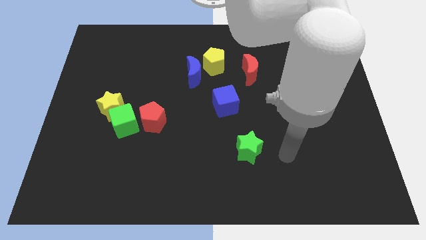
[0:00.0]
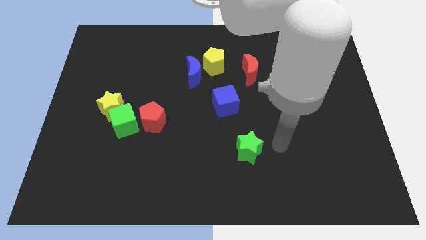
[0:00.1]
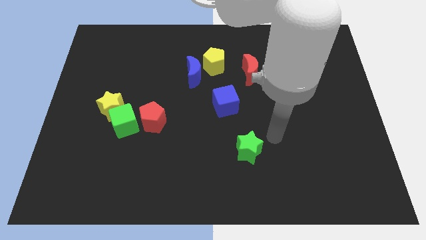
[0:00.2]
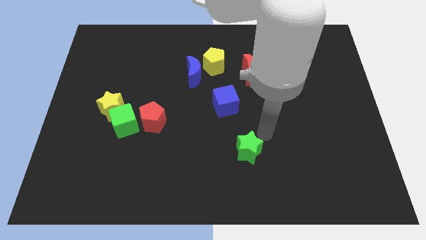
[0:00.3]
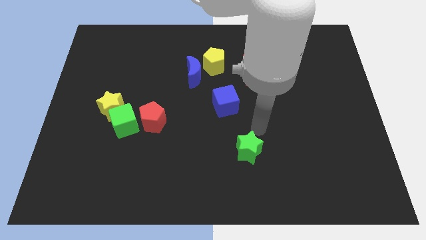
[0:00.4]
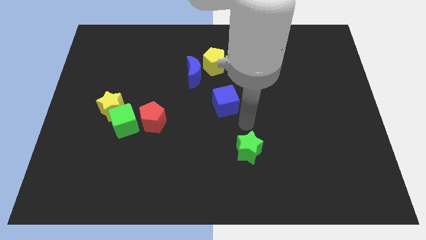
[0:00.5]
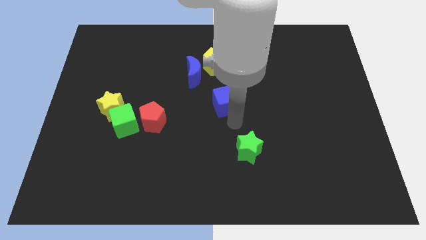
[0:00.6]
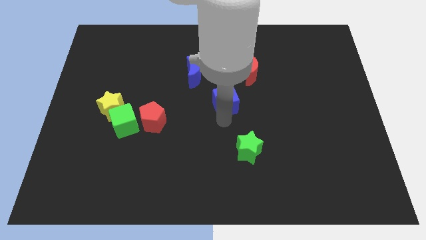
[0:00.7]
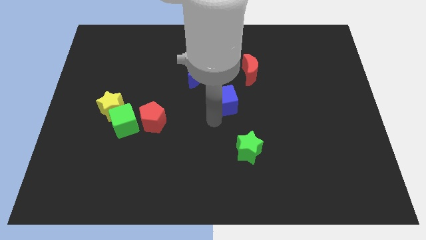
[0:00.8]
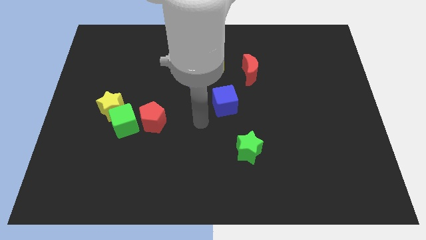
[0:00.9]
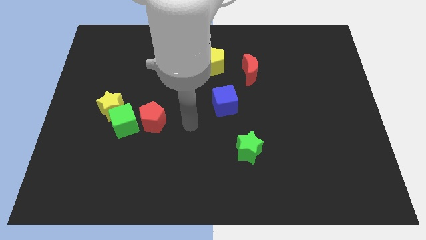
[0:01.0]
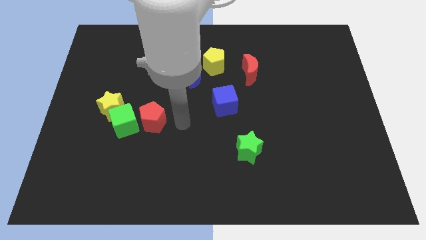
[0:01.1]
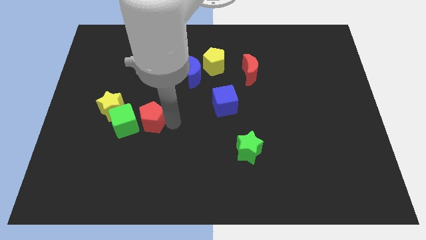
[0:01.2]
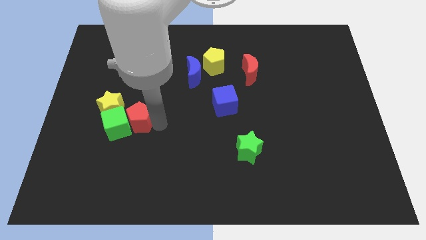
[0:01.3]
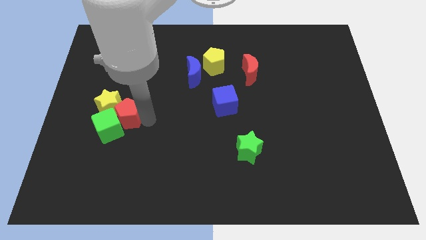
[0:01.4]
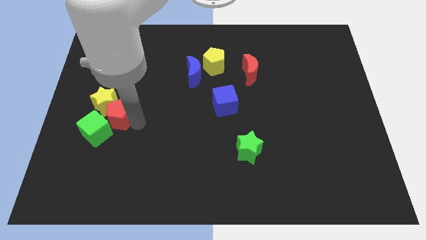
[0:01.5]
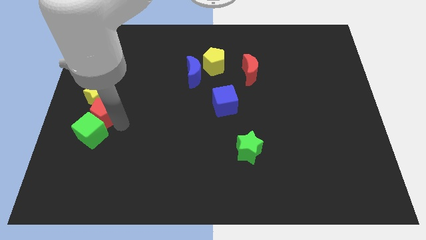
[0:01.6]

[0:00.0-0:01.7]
move the yellow star away from the green cube

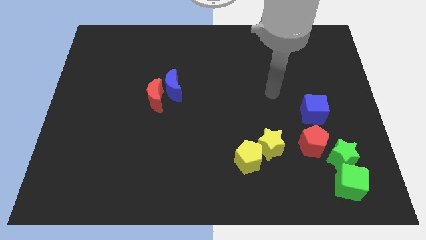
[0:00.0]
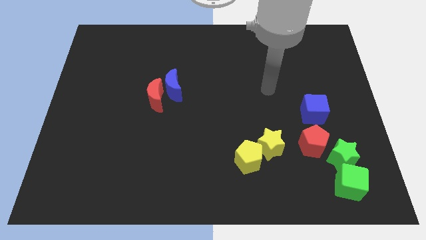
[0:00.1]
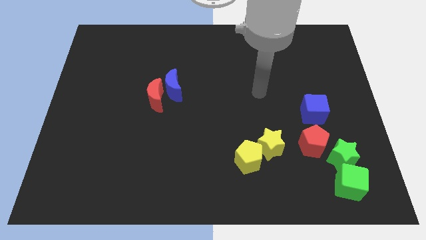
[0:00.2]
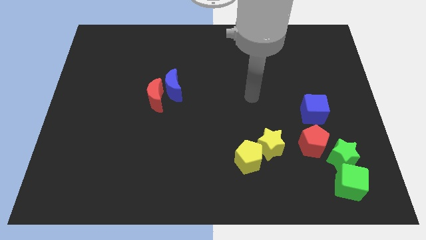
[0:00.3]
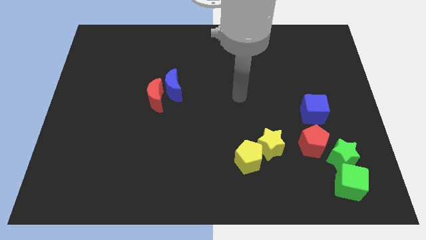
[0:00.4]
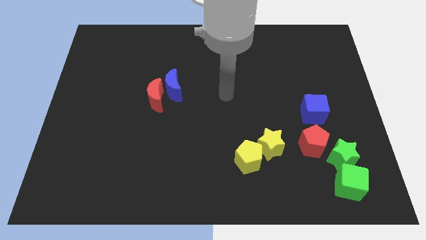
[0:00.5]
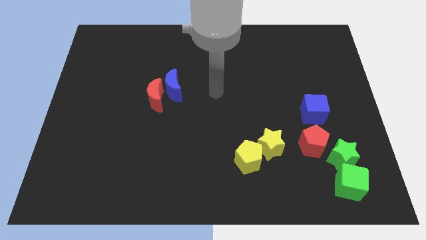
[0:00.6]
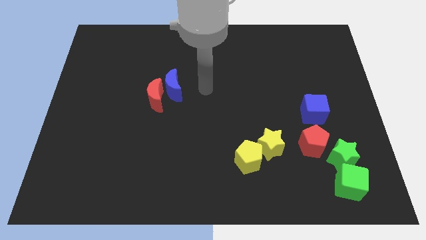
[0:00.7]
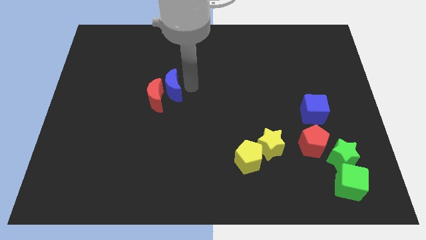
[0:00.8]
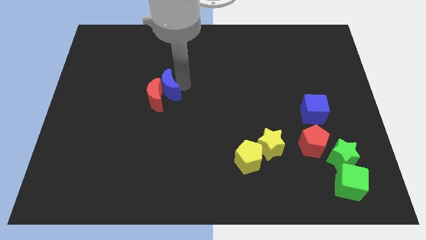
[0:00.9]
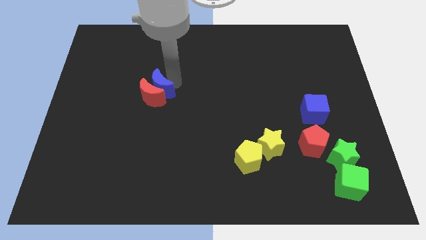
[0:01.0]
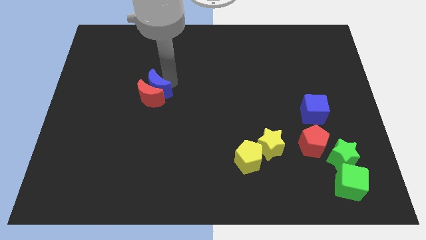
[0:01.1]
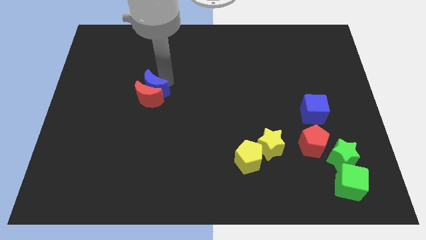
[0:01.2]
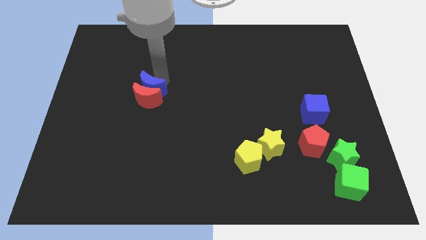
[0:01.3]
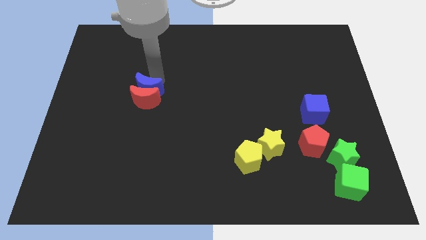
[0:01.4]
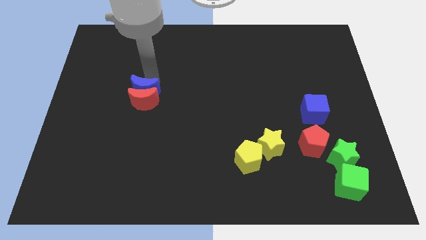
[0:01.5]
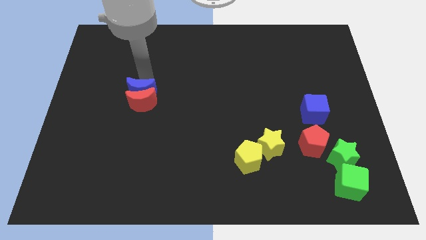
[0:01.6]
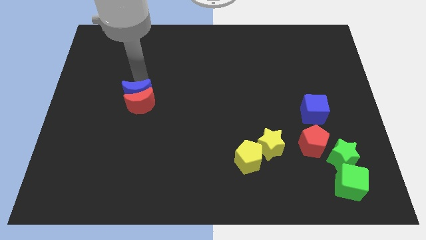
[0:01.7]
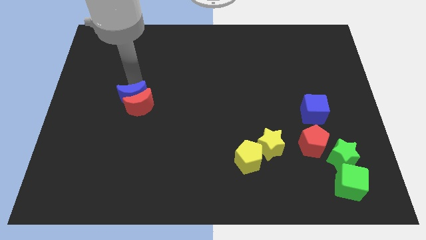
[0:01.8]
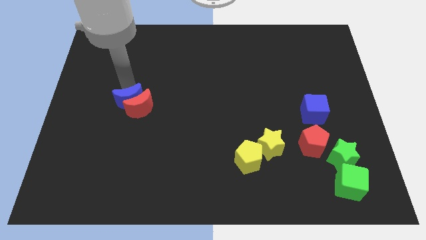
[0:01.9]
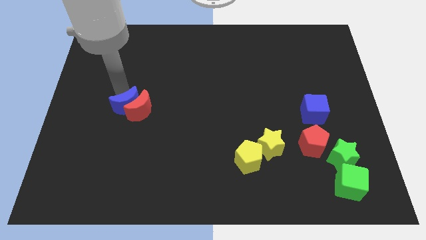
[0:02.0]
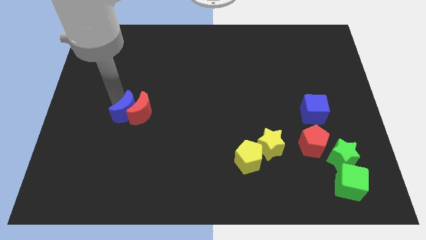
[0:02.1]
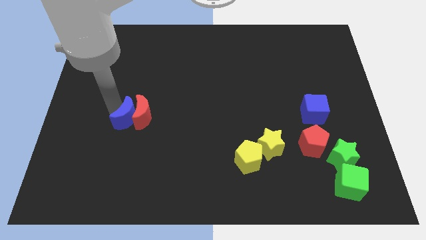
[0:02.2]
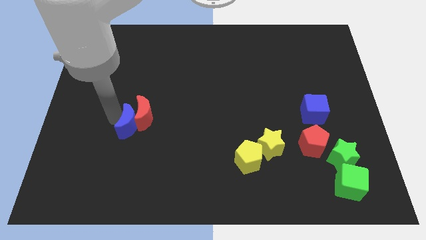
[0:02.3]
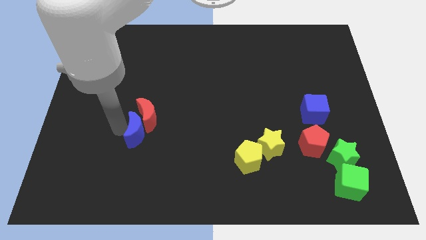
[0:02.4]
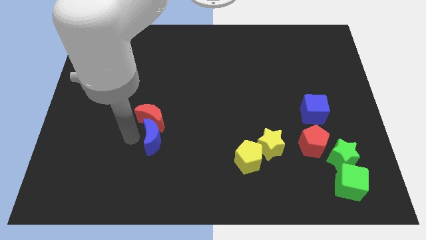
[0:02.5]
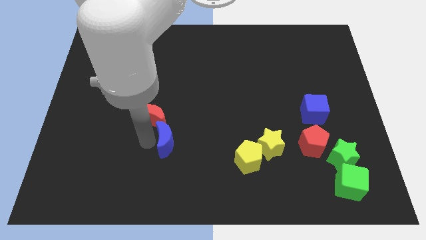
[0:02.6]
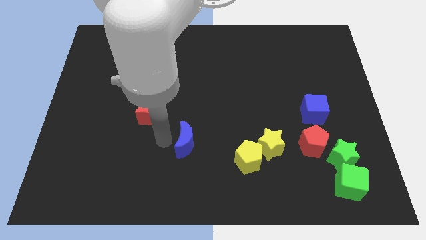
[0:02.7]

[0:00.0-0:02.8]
separate the red moon from the blue moon

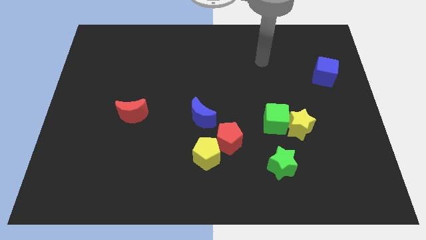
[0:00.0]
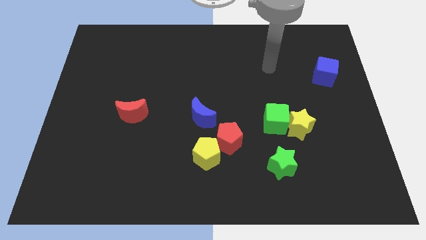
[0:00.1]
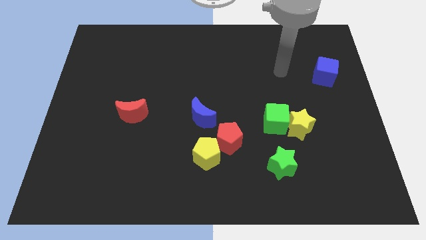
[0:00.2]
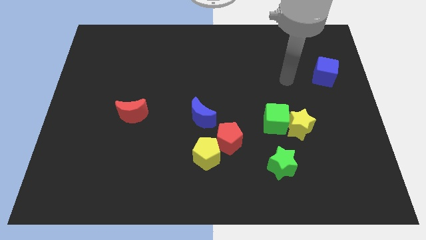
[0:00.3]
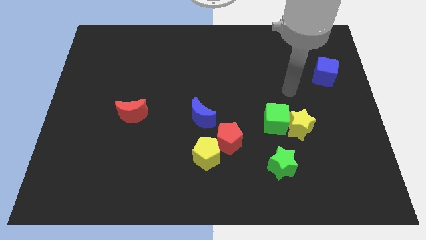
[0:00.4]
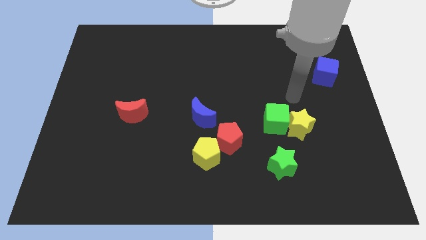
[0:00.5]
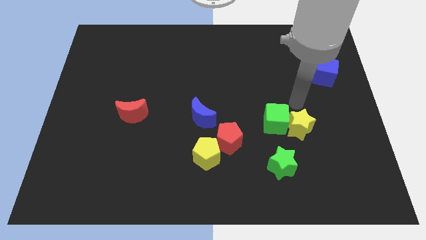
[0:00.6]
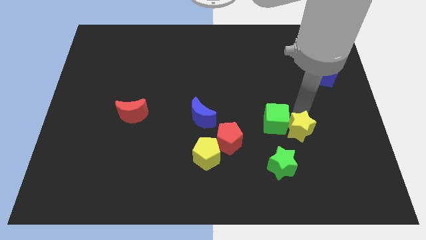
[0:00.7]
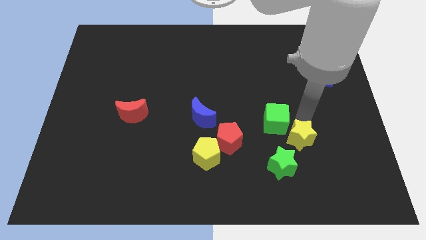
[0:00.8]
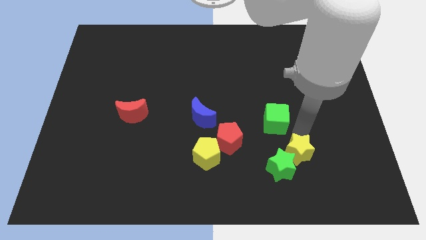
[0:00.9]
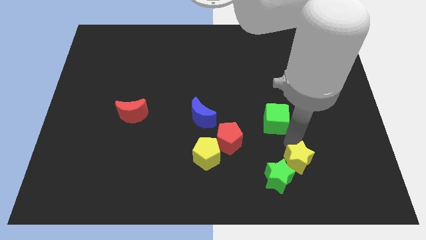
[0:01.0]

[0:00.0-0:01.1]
pull the green cube apart from the yellow star

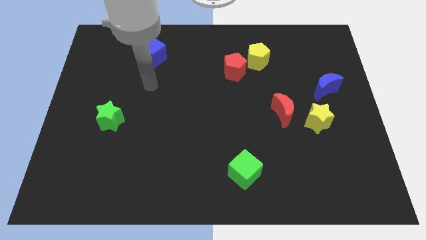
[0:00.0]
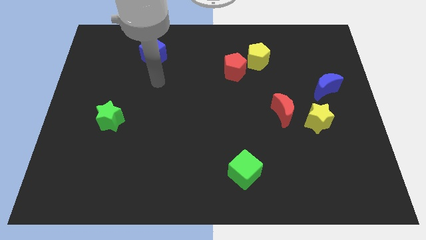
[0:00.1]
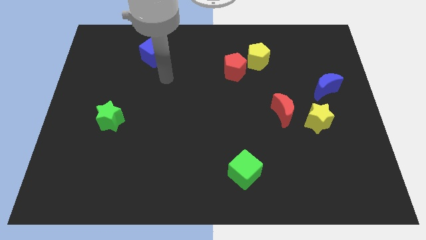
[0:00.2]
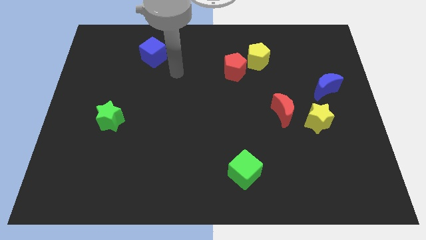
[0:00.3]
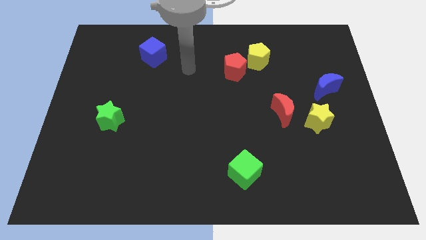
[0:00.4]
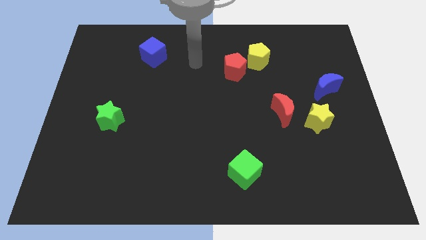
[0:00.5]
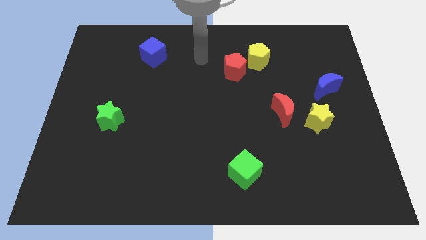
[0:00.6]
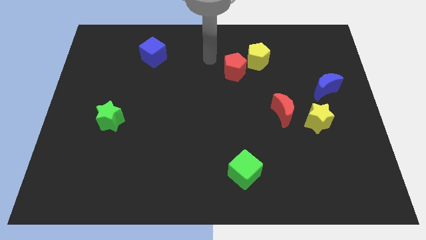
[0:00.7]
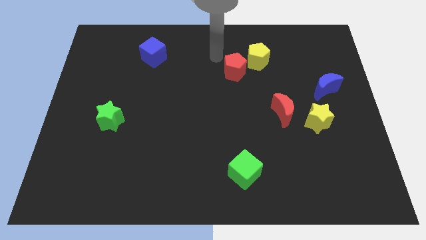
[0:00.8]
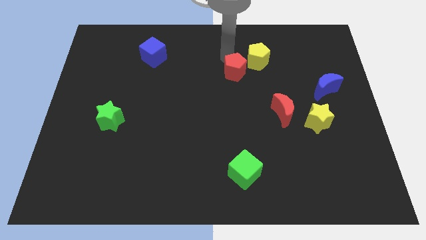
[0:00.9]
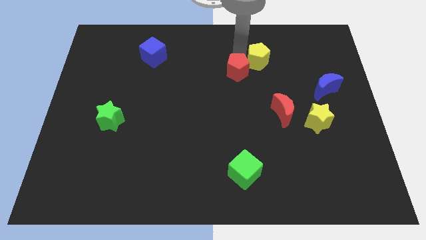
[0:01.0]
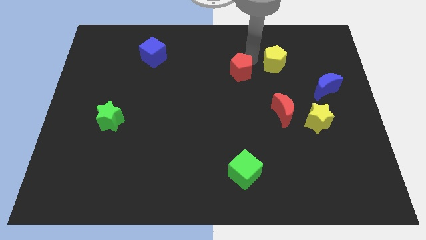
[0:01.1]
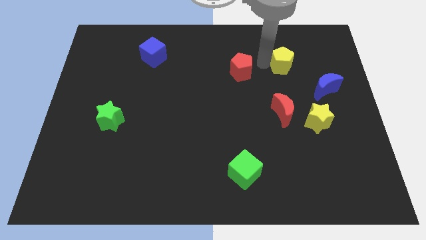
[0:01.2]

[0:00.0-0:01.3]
separate the red pentagon from the yellow pentagon

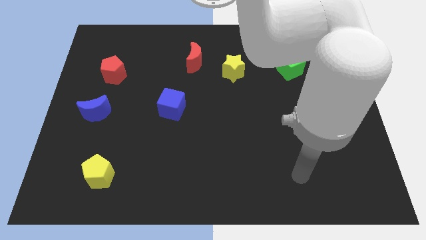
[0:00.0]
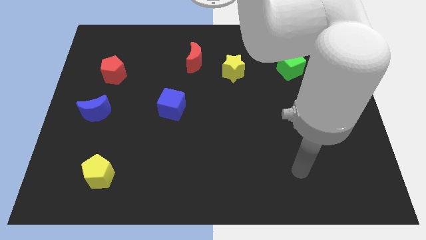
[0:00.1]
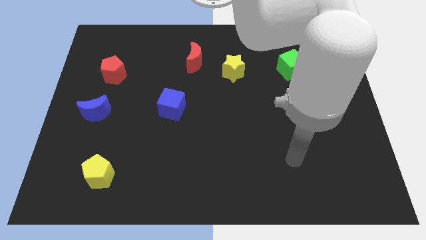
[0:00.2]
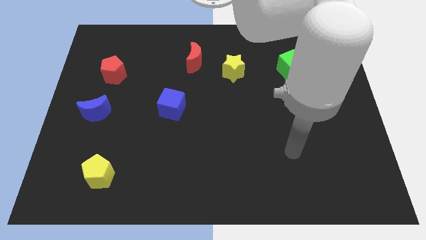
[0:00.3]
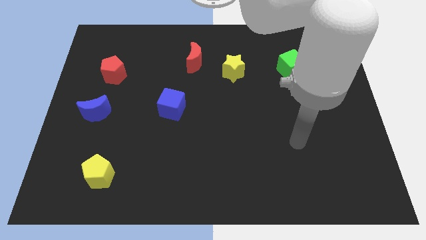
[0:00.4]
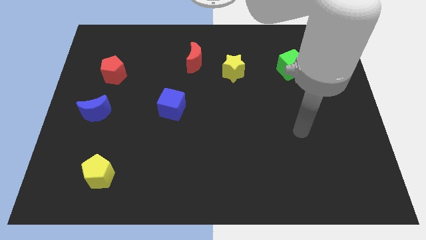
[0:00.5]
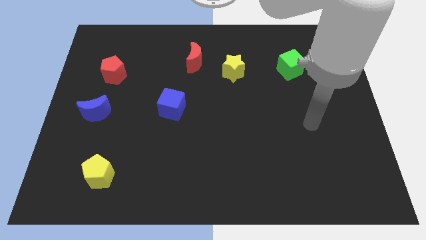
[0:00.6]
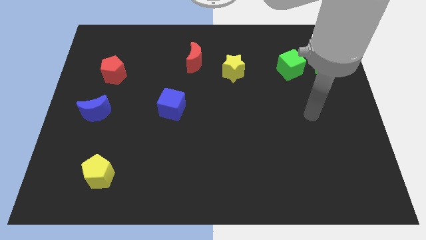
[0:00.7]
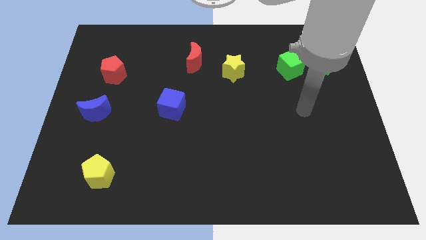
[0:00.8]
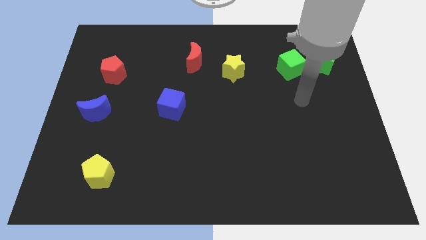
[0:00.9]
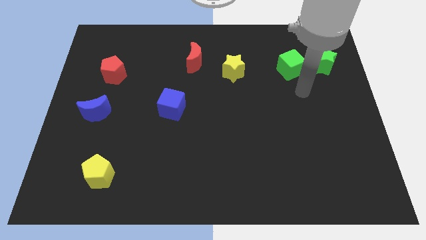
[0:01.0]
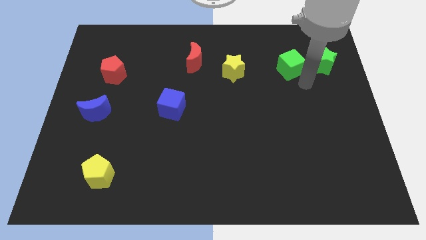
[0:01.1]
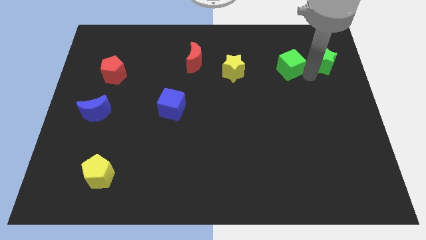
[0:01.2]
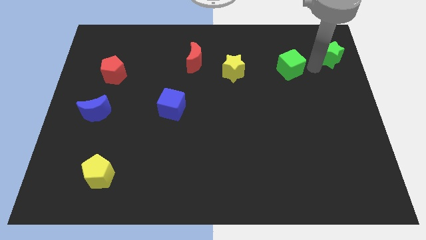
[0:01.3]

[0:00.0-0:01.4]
move the green cube away from the green star

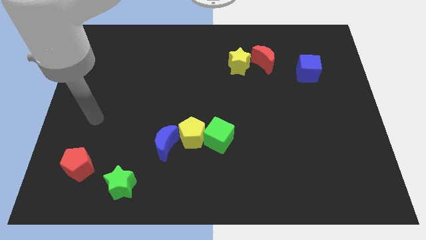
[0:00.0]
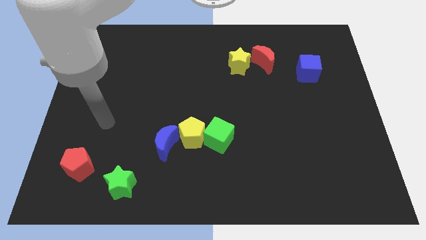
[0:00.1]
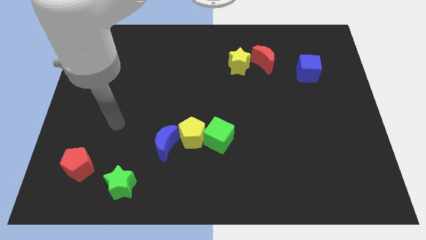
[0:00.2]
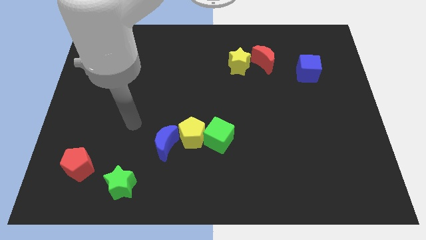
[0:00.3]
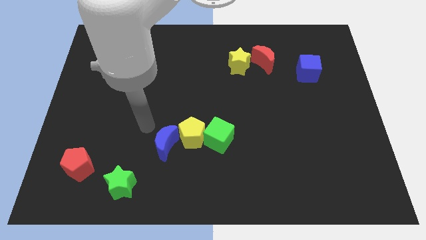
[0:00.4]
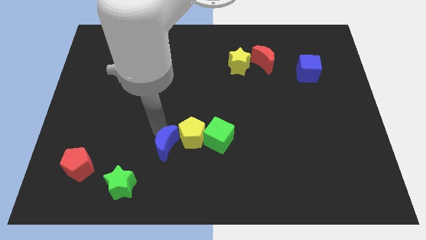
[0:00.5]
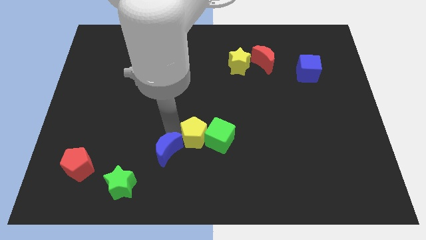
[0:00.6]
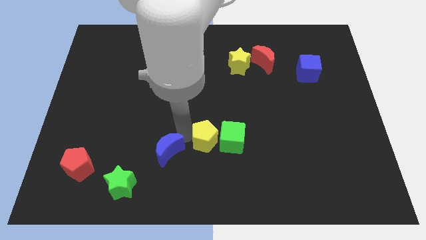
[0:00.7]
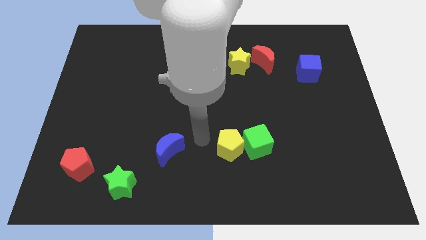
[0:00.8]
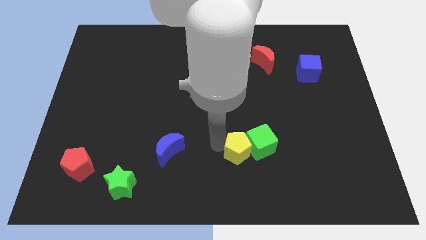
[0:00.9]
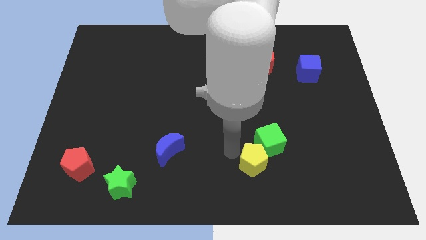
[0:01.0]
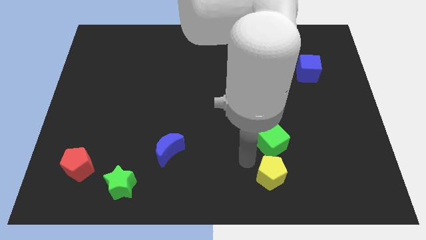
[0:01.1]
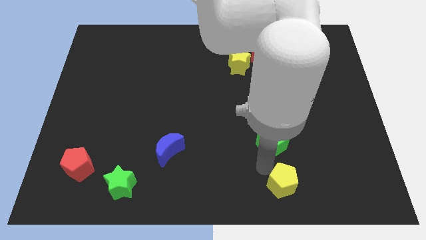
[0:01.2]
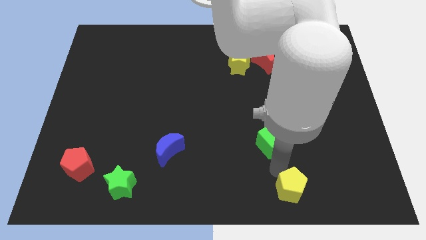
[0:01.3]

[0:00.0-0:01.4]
separate the green cube from the yellow pentagon
